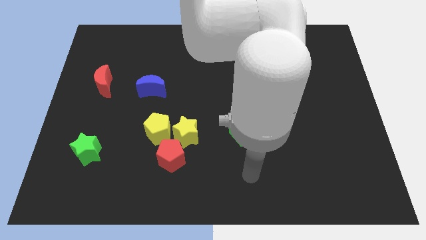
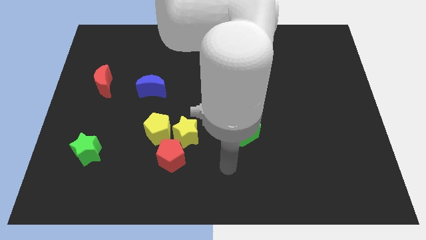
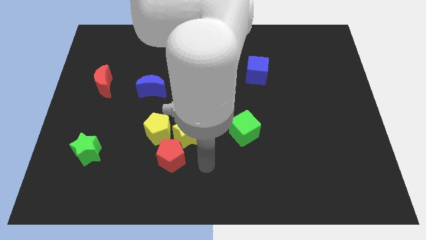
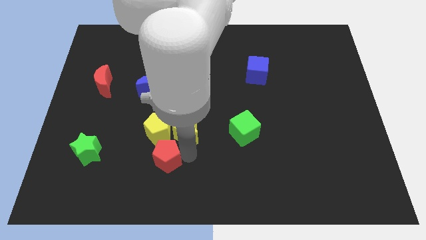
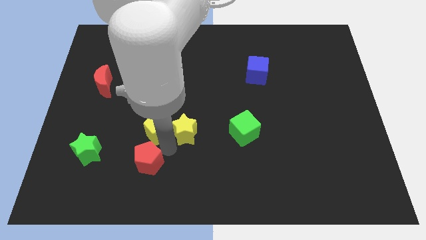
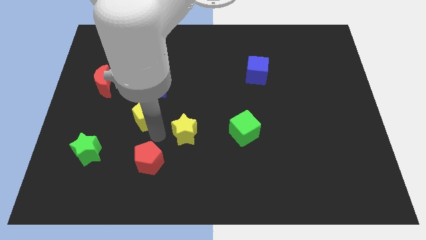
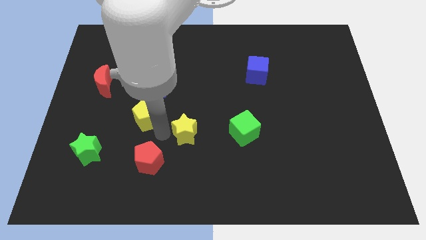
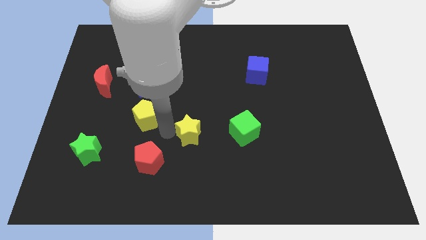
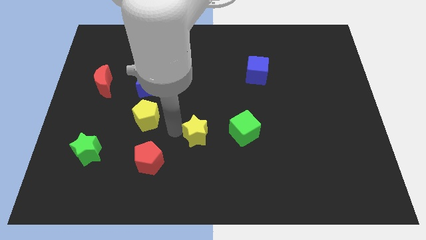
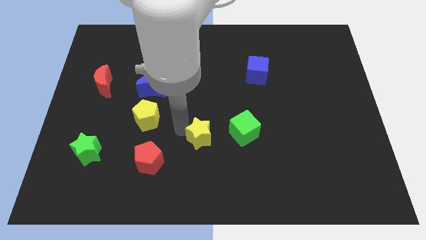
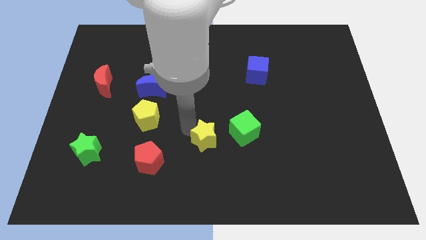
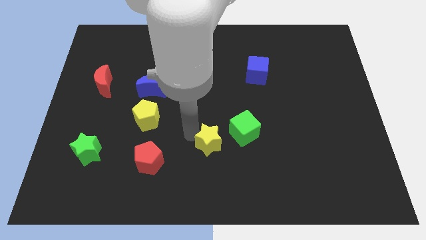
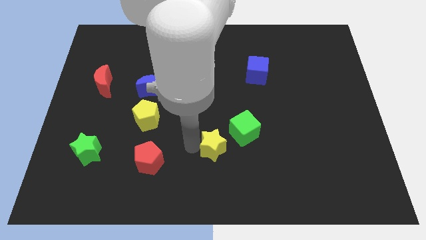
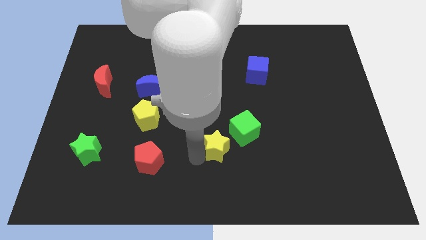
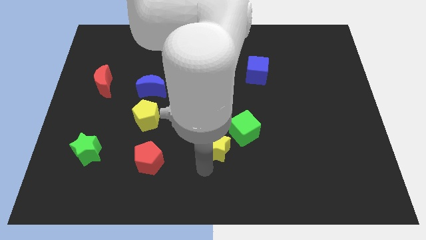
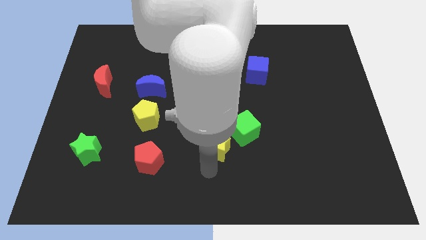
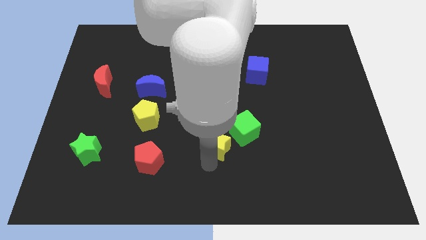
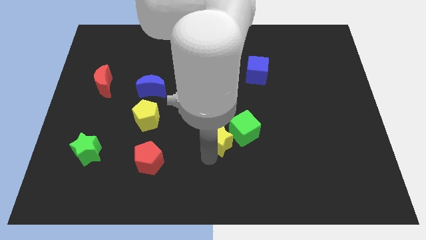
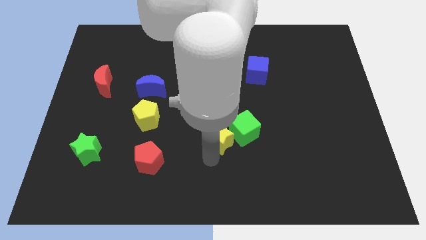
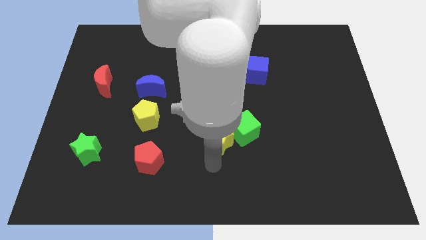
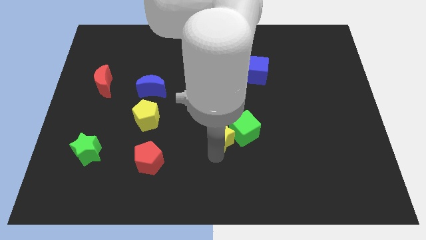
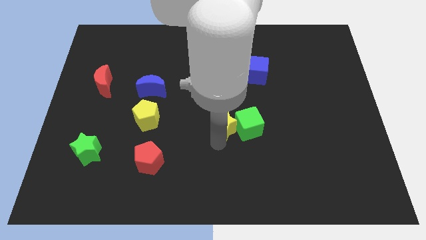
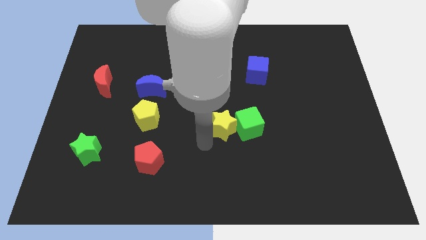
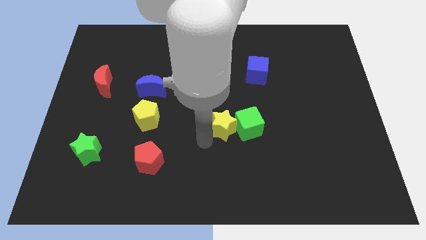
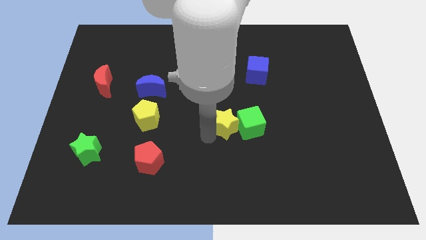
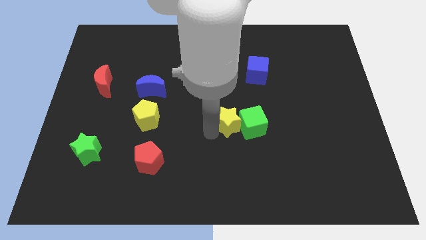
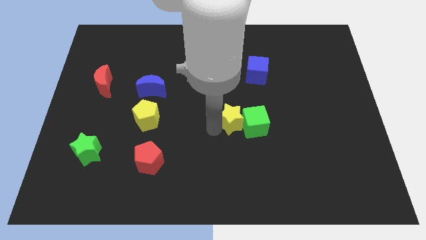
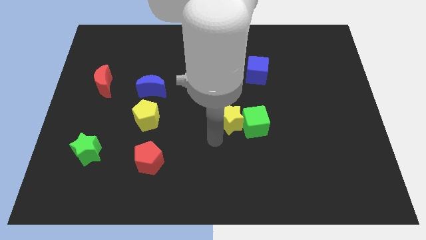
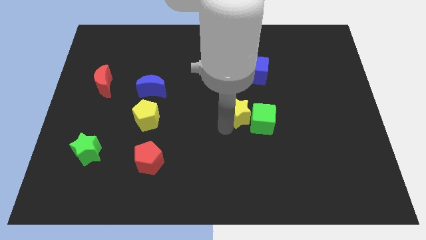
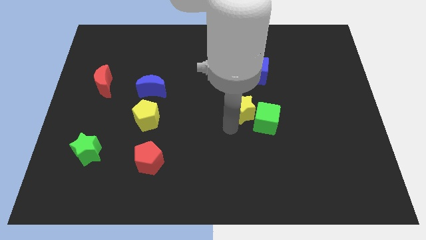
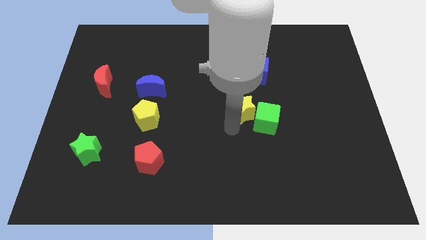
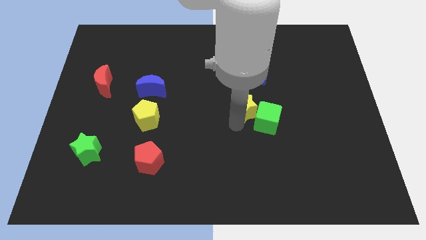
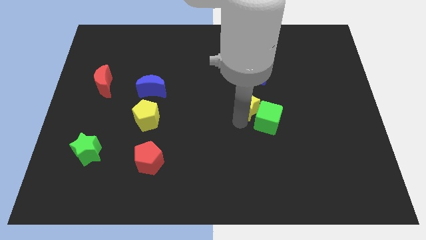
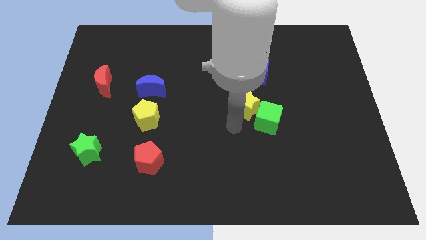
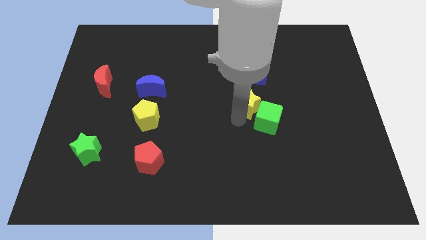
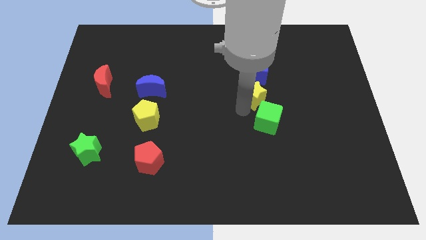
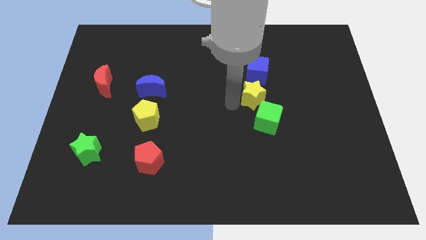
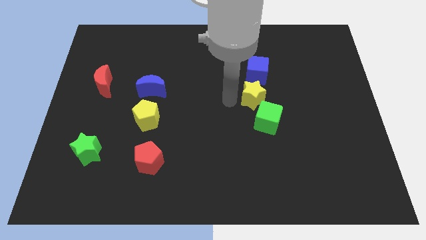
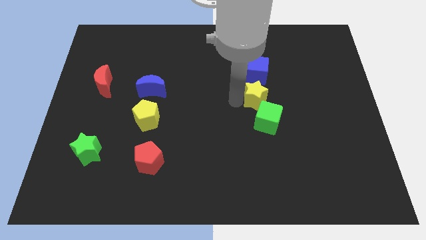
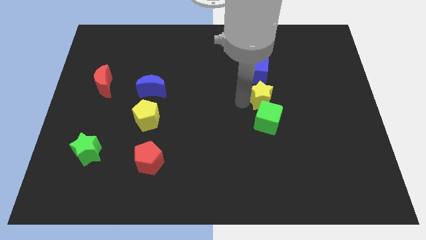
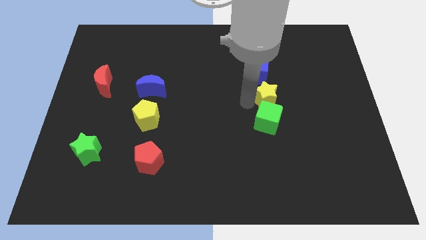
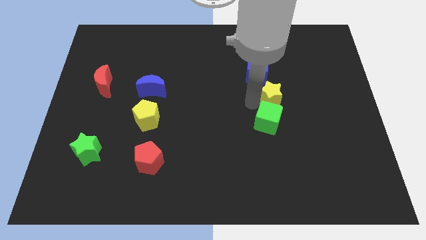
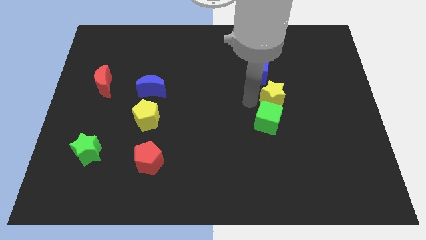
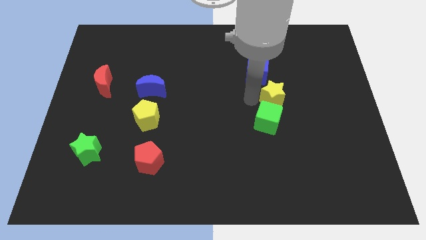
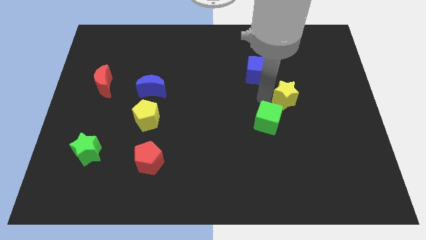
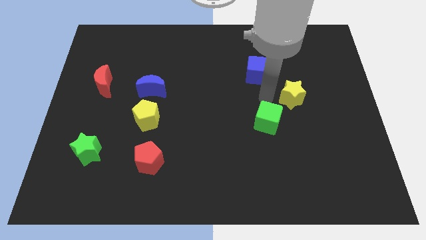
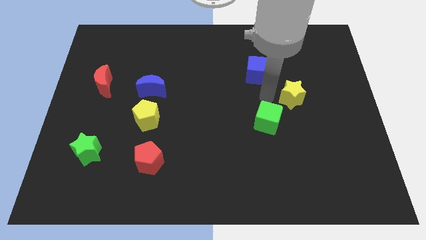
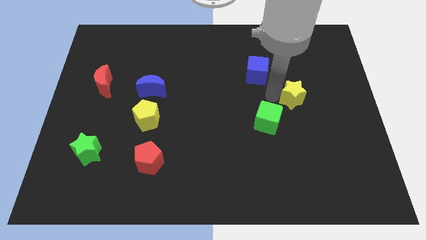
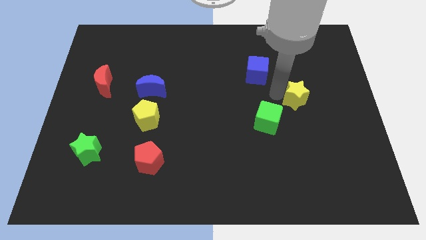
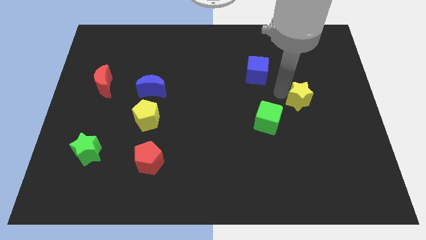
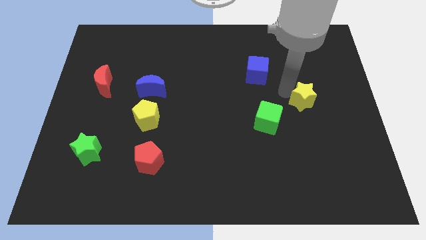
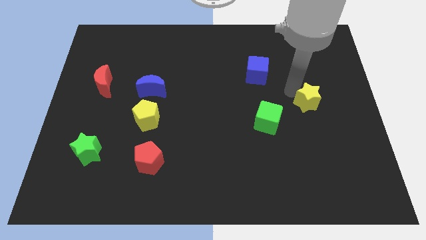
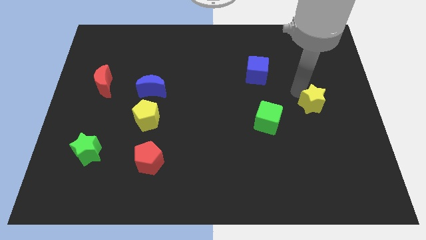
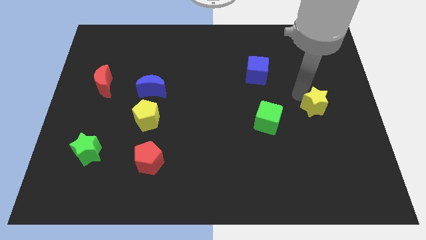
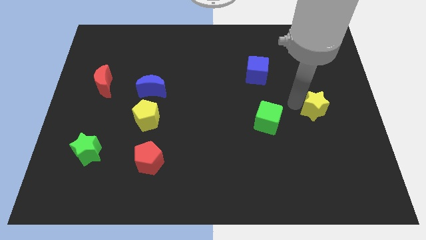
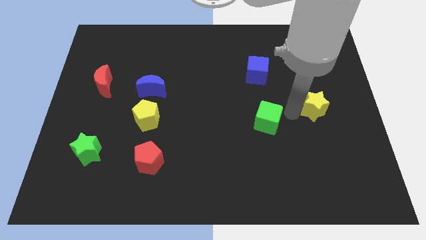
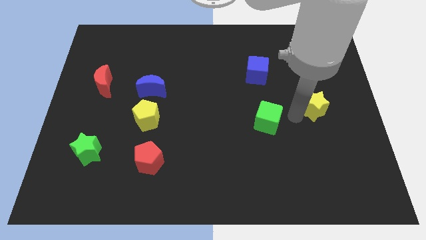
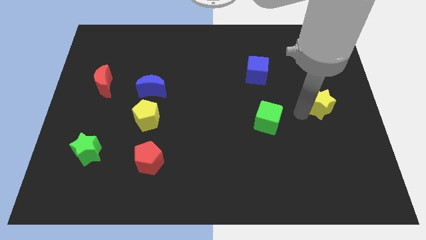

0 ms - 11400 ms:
push the yellow star to the right side

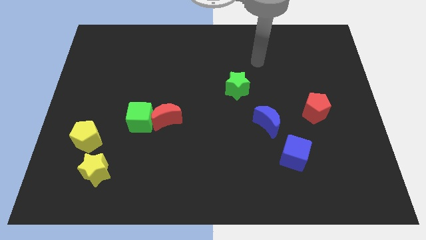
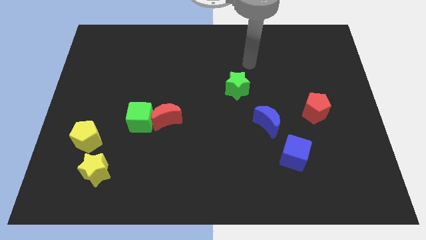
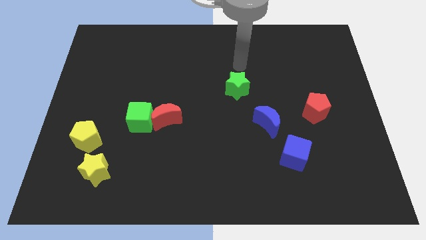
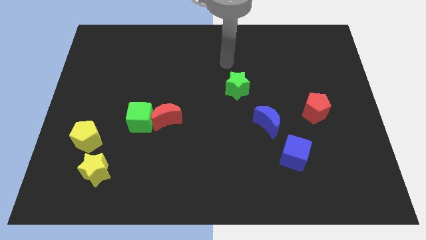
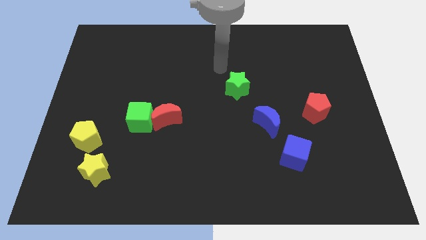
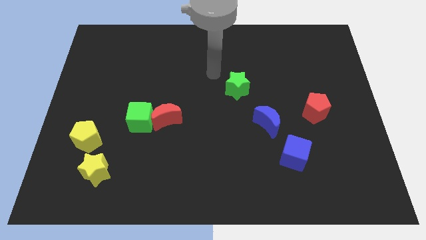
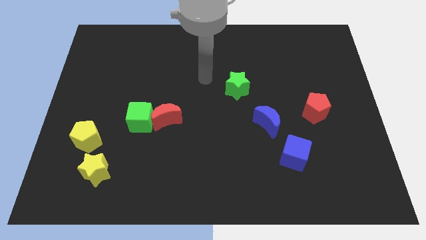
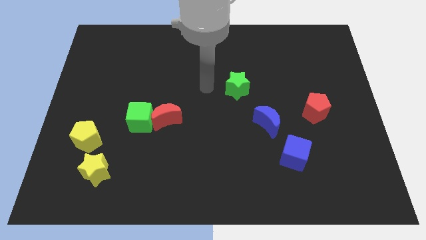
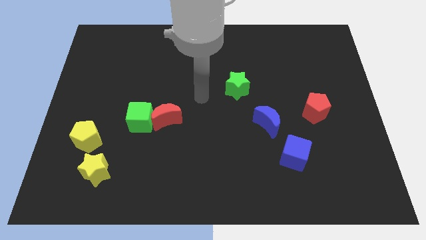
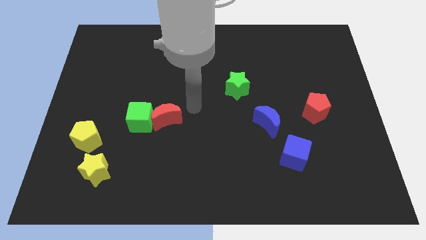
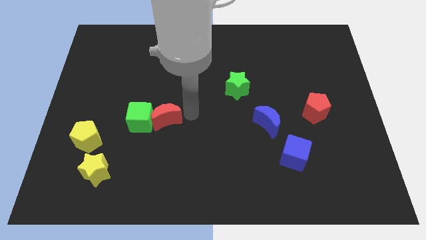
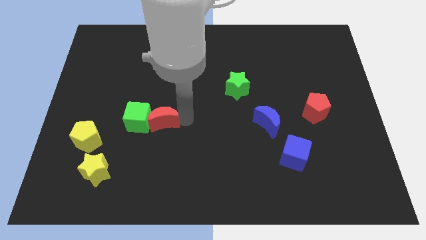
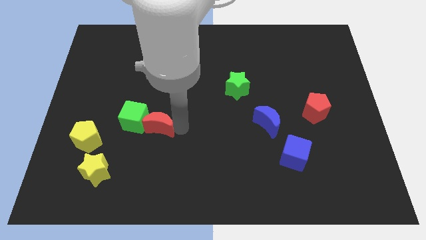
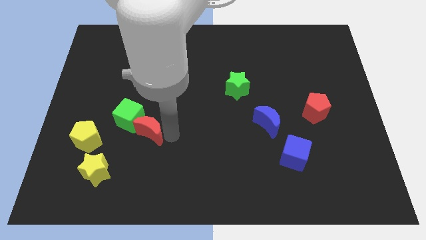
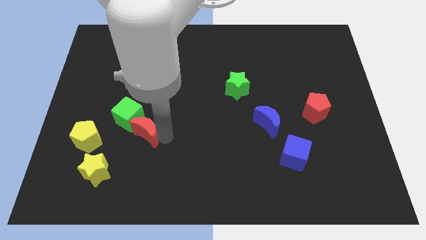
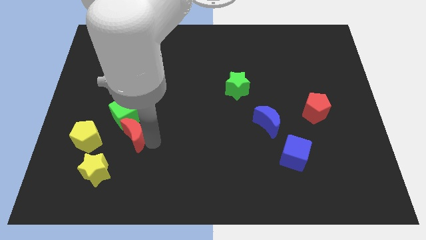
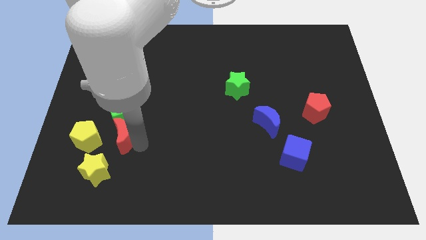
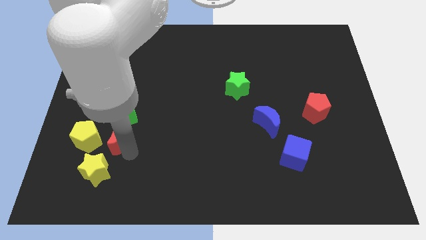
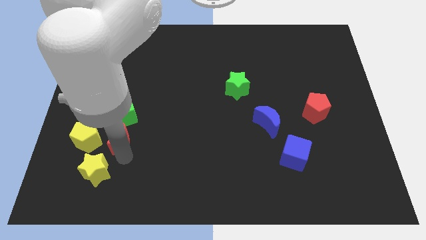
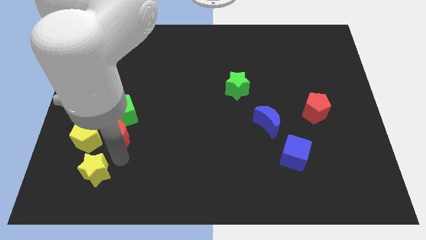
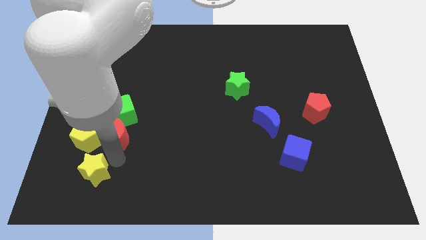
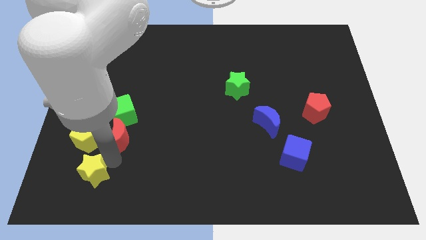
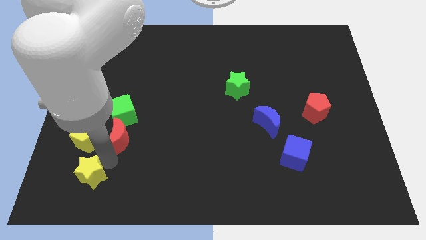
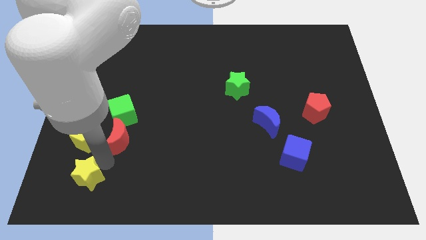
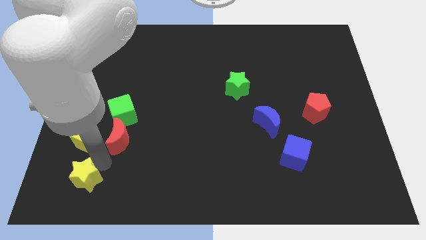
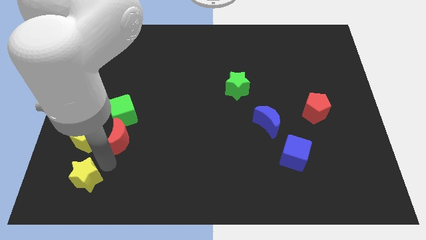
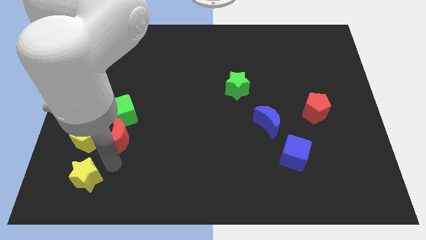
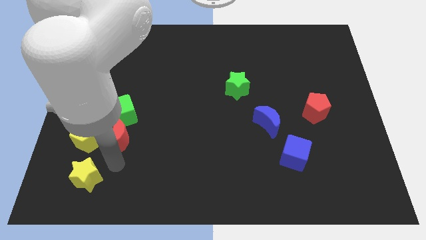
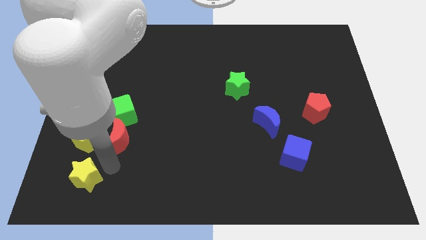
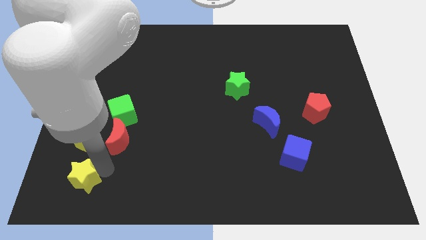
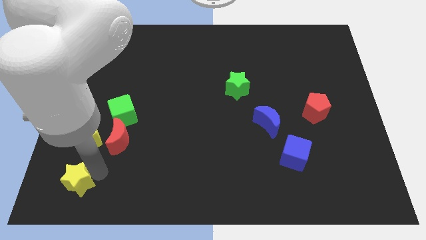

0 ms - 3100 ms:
push the yellow star to the lower left corner
